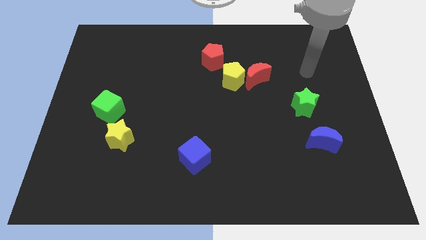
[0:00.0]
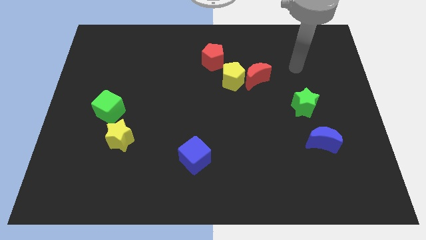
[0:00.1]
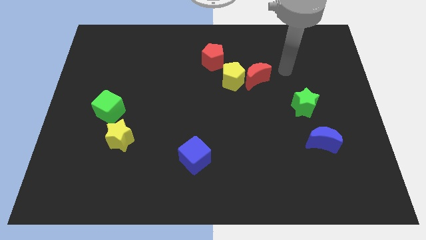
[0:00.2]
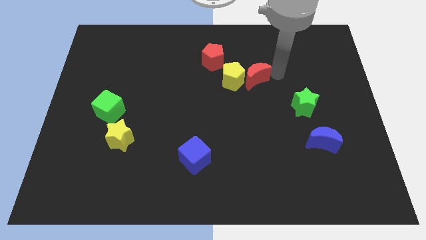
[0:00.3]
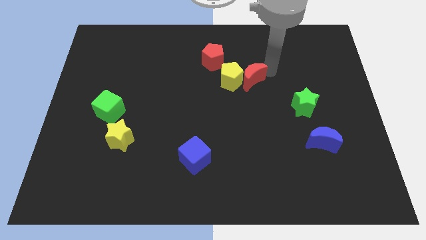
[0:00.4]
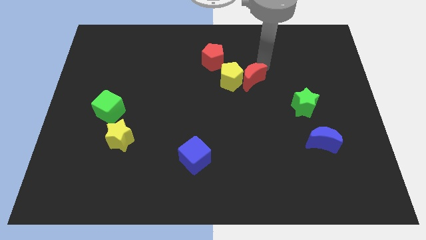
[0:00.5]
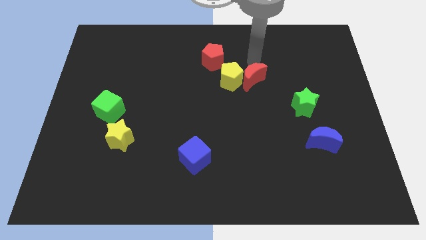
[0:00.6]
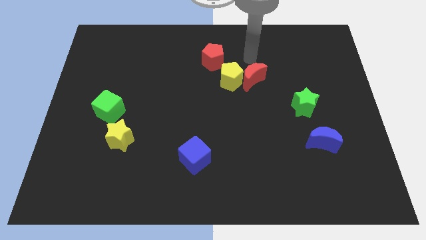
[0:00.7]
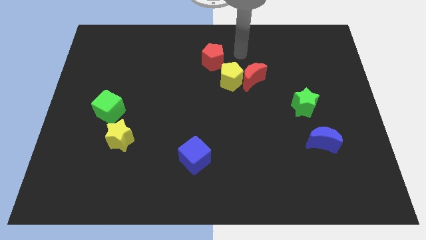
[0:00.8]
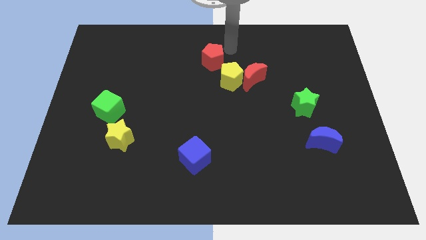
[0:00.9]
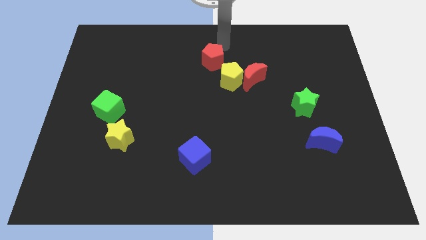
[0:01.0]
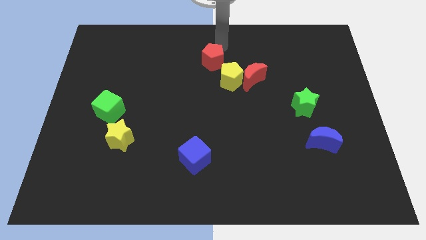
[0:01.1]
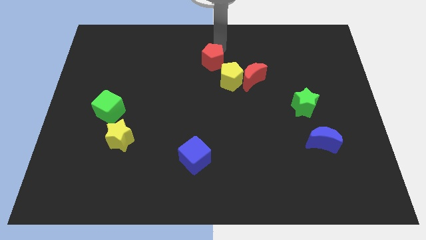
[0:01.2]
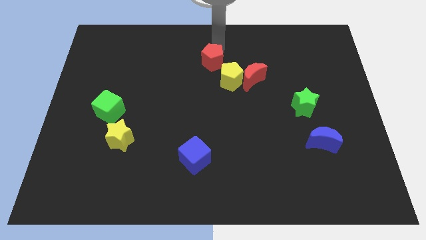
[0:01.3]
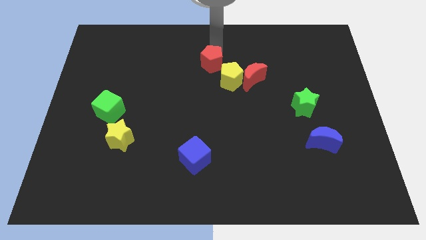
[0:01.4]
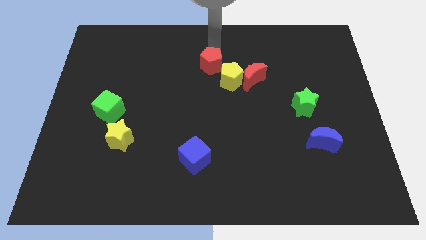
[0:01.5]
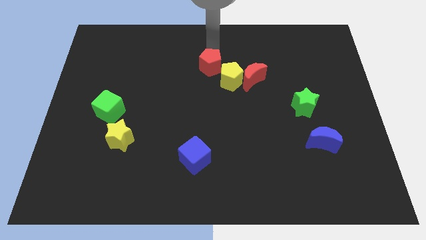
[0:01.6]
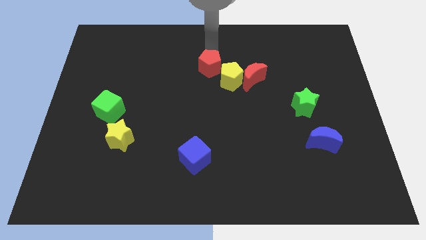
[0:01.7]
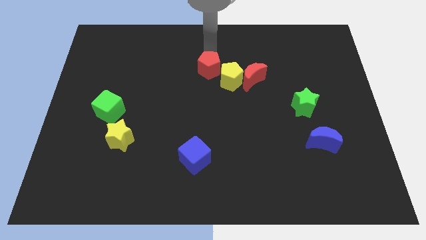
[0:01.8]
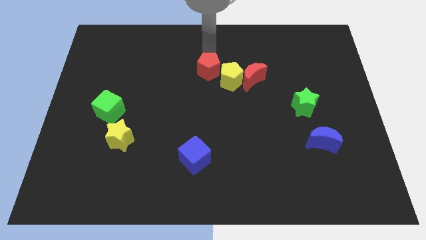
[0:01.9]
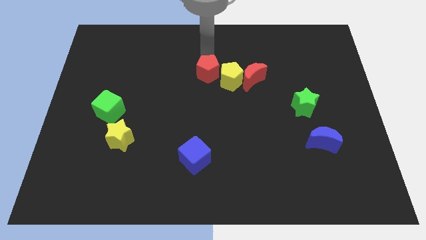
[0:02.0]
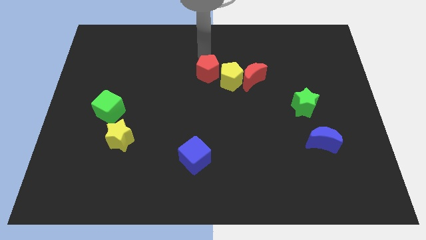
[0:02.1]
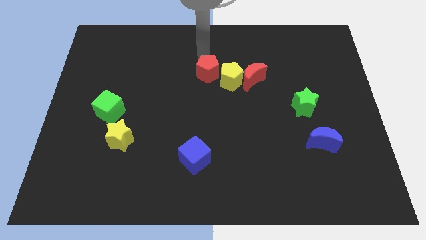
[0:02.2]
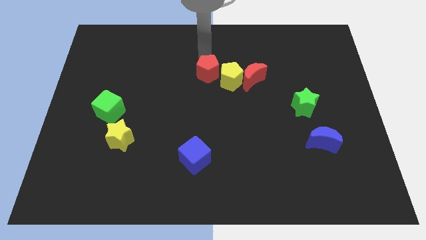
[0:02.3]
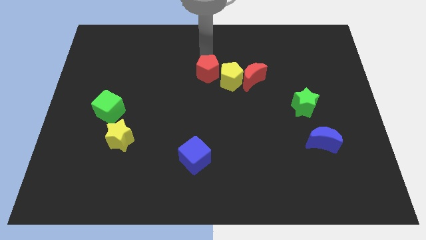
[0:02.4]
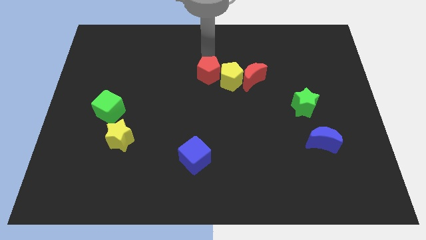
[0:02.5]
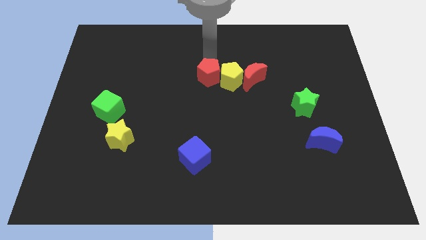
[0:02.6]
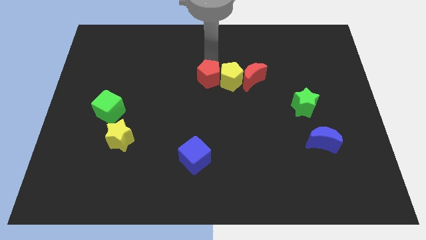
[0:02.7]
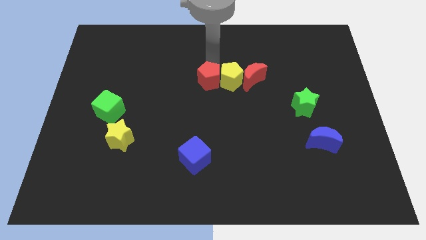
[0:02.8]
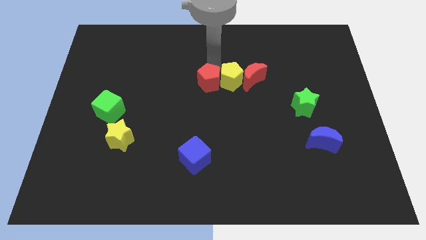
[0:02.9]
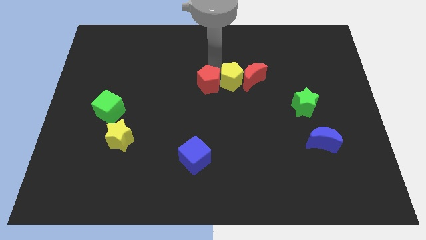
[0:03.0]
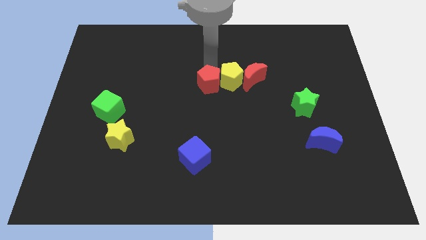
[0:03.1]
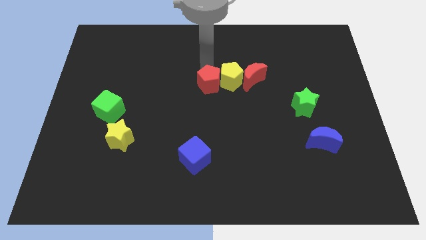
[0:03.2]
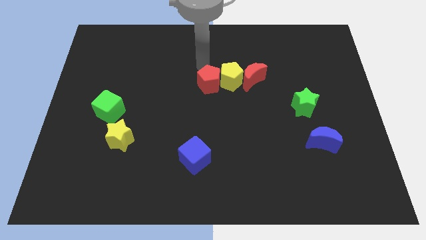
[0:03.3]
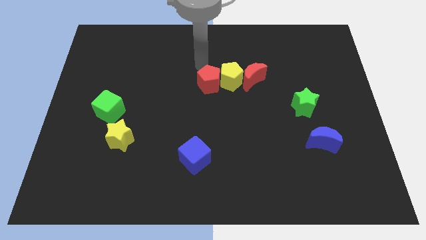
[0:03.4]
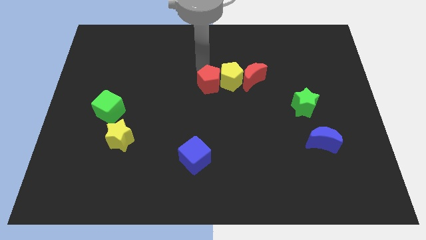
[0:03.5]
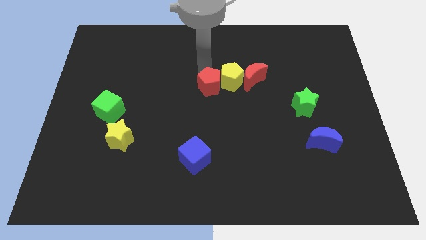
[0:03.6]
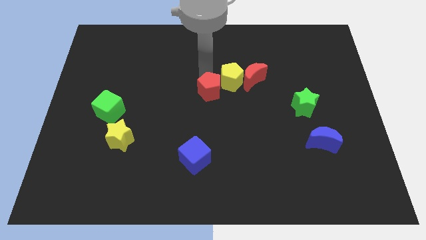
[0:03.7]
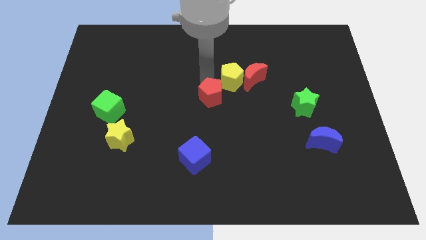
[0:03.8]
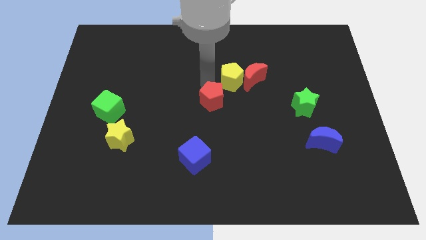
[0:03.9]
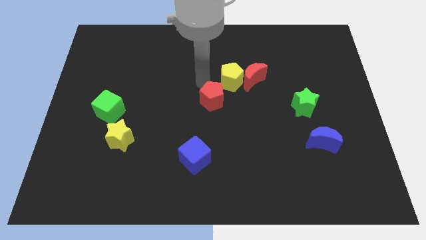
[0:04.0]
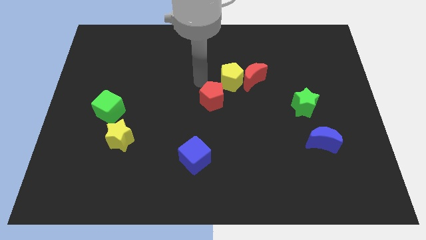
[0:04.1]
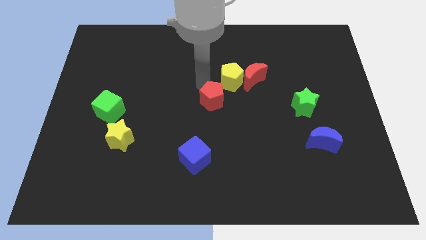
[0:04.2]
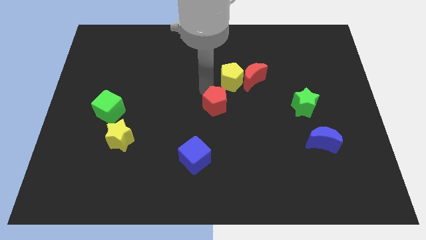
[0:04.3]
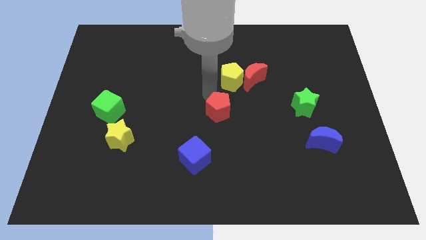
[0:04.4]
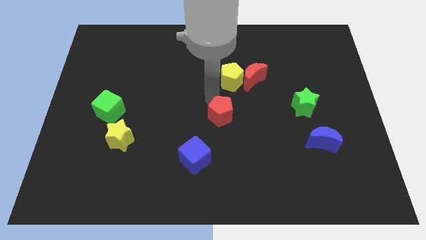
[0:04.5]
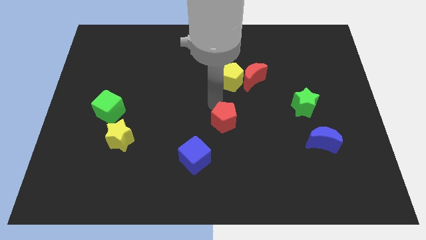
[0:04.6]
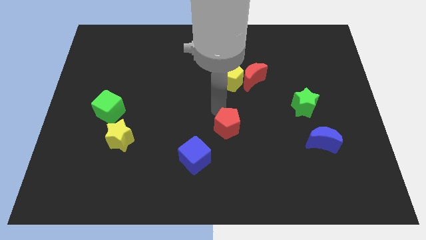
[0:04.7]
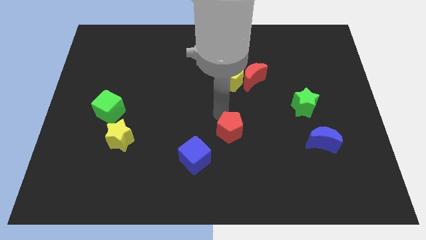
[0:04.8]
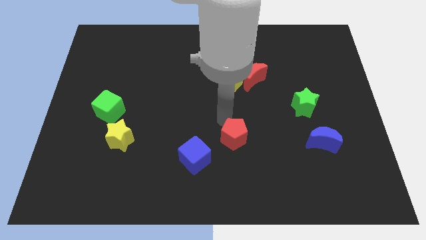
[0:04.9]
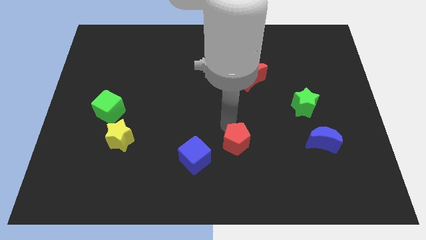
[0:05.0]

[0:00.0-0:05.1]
put the red pentagon to the right of the blue cube

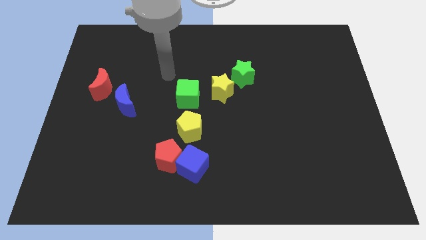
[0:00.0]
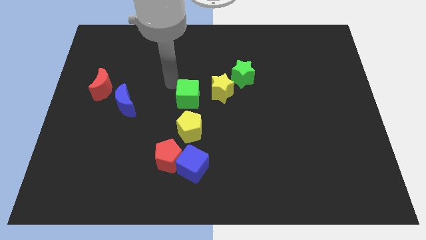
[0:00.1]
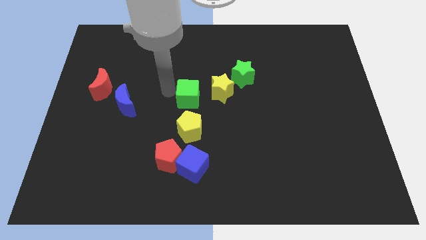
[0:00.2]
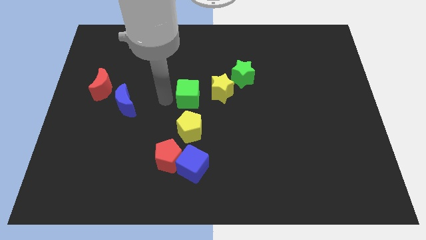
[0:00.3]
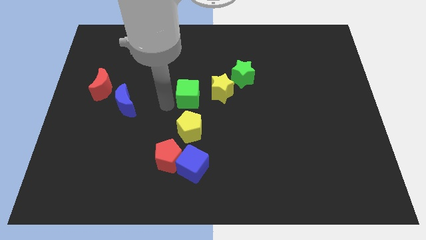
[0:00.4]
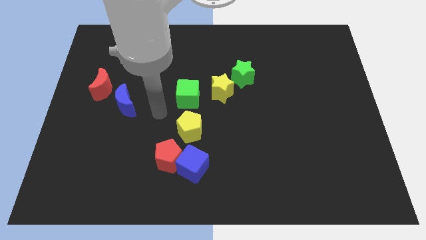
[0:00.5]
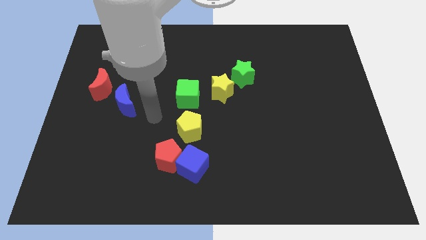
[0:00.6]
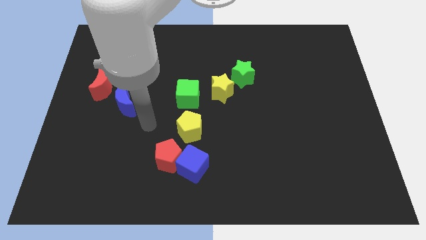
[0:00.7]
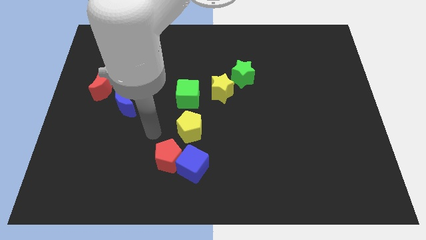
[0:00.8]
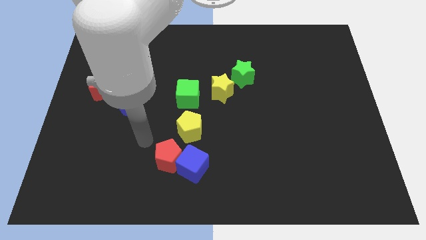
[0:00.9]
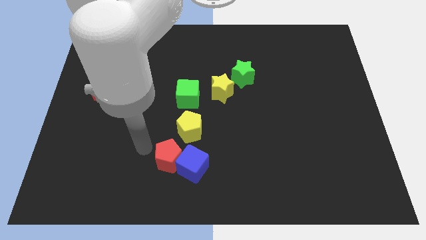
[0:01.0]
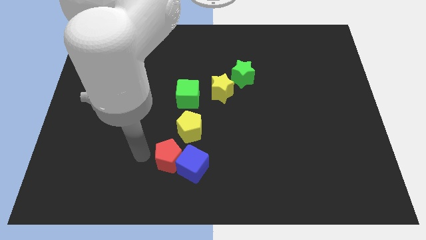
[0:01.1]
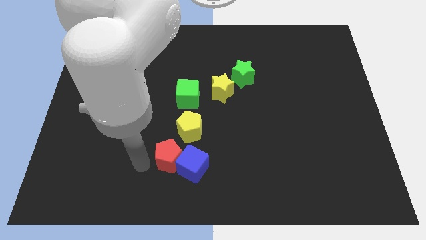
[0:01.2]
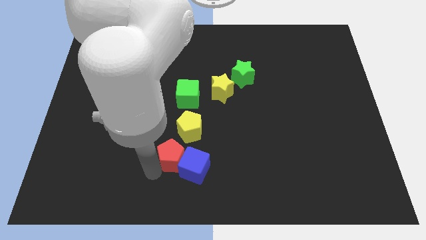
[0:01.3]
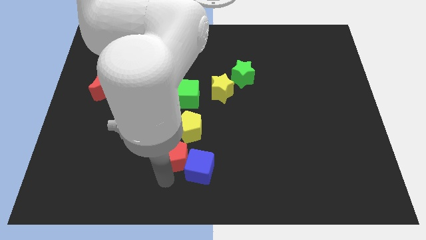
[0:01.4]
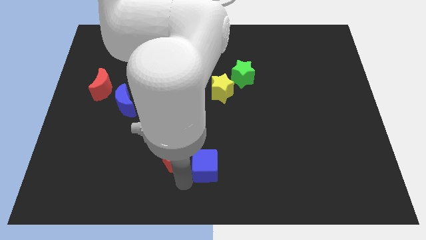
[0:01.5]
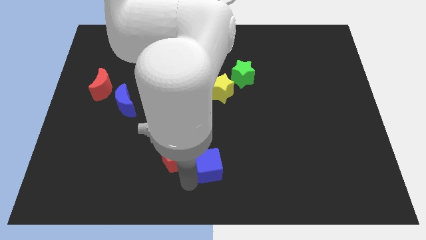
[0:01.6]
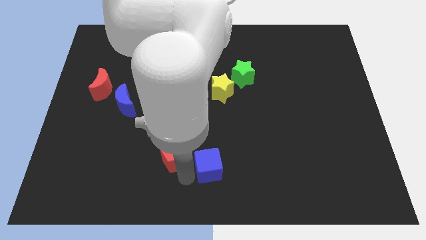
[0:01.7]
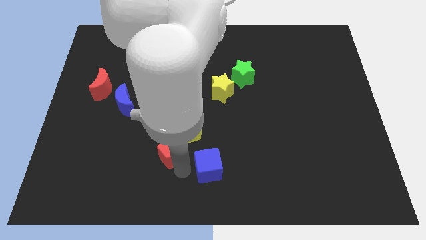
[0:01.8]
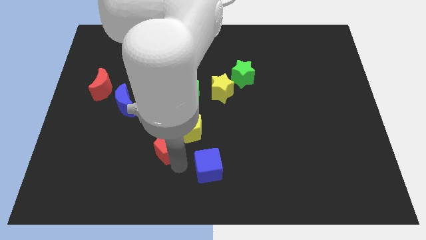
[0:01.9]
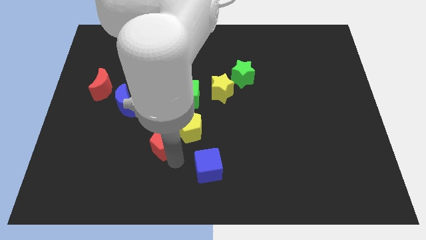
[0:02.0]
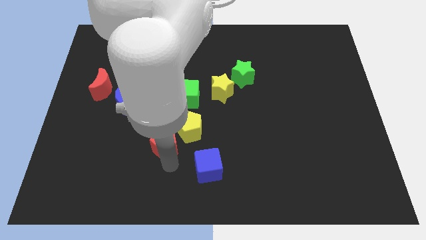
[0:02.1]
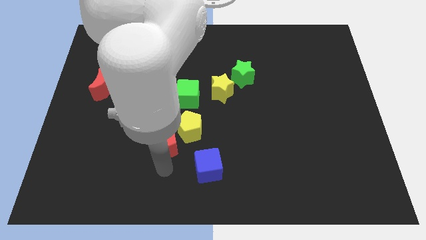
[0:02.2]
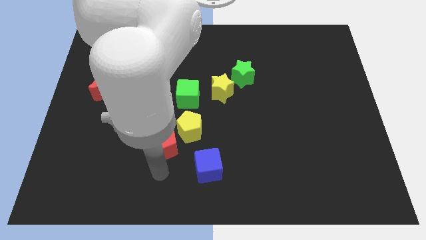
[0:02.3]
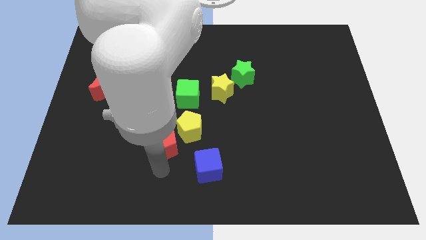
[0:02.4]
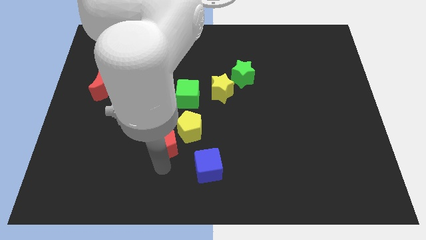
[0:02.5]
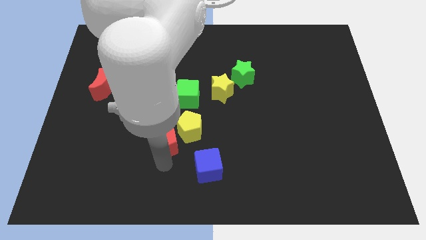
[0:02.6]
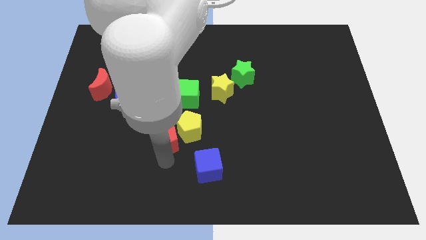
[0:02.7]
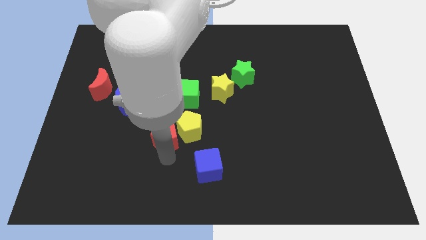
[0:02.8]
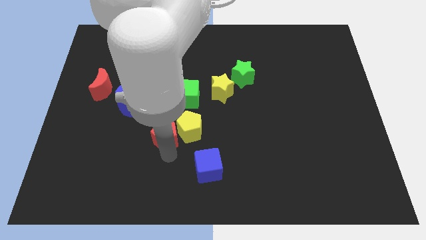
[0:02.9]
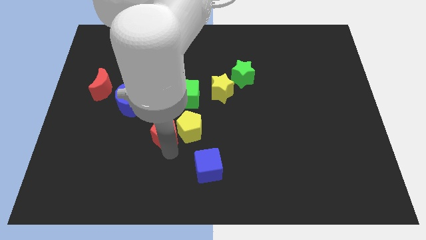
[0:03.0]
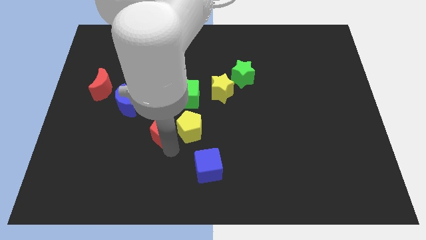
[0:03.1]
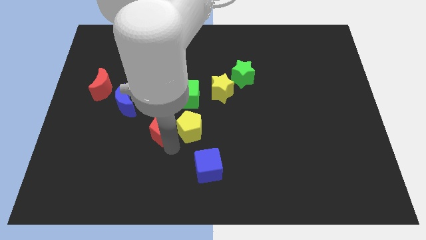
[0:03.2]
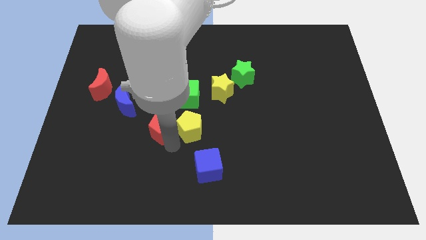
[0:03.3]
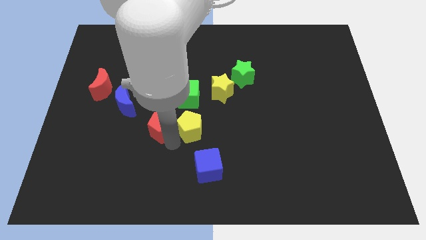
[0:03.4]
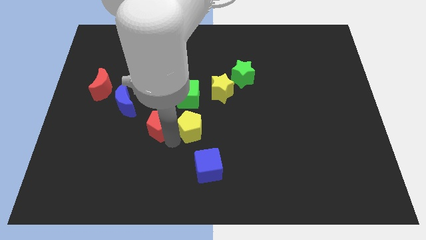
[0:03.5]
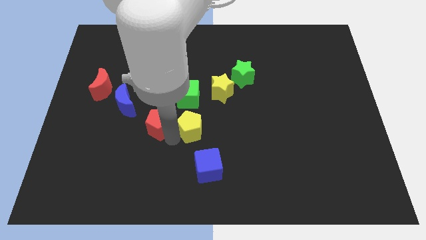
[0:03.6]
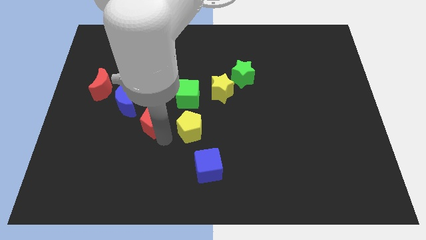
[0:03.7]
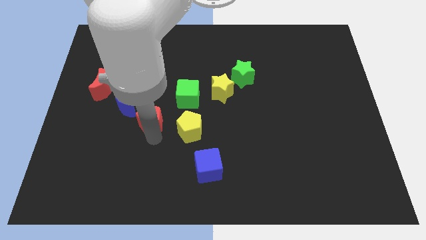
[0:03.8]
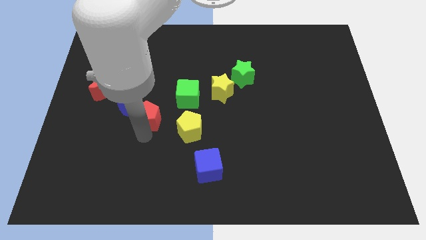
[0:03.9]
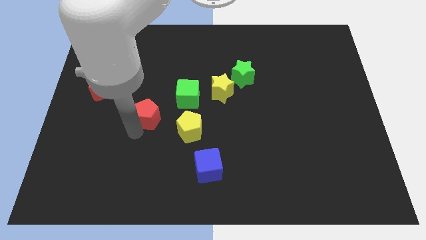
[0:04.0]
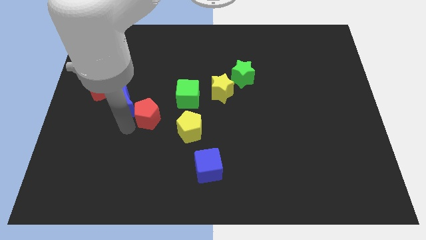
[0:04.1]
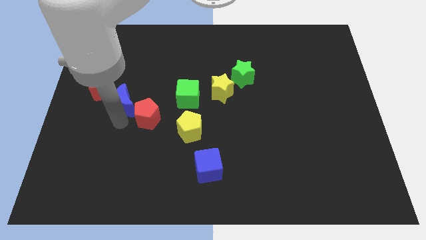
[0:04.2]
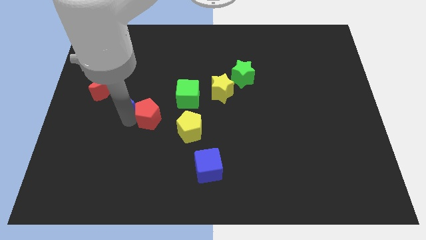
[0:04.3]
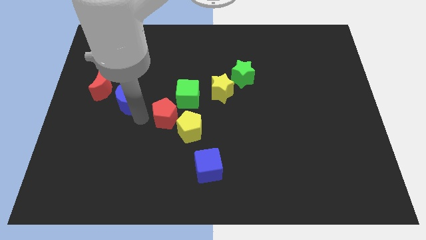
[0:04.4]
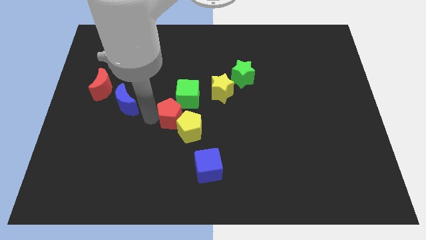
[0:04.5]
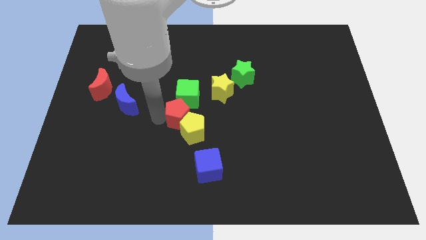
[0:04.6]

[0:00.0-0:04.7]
move the red pentagon to the bottom left of the yellow star
